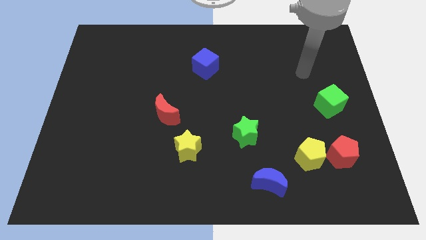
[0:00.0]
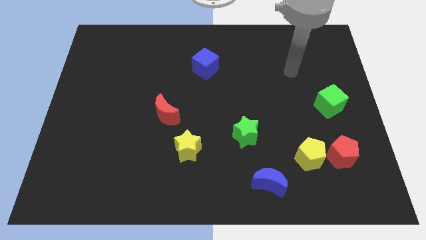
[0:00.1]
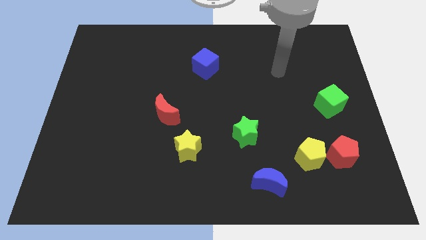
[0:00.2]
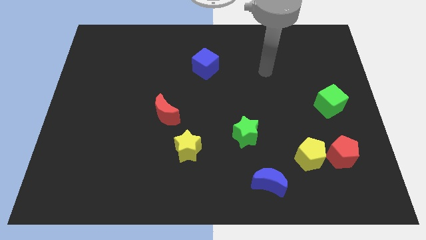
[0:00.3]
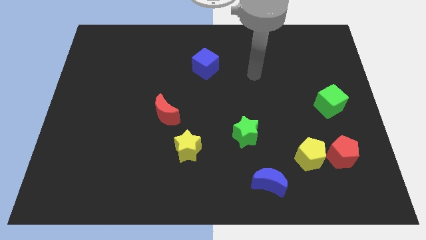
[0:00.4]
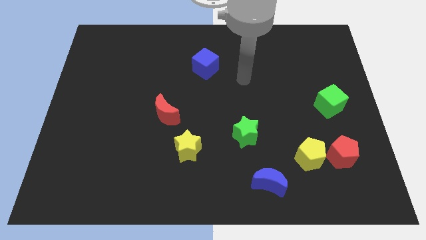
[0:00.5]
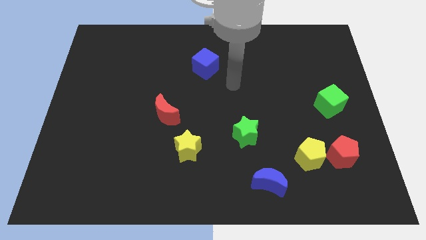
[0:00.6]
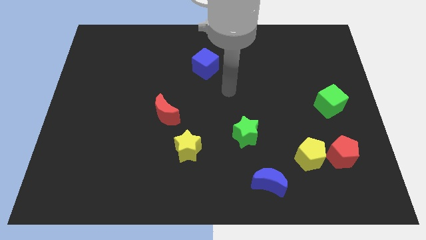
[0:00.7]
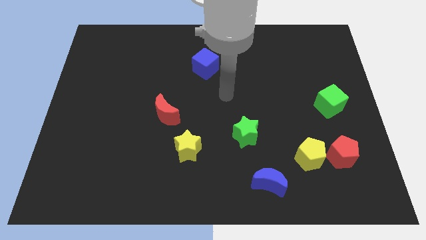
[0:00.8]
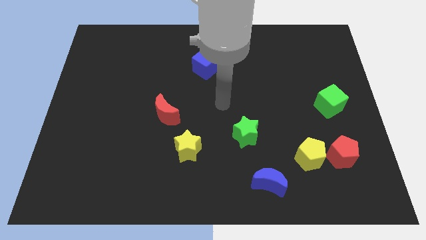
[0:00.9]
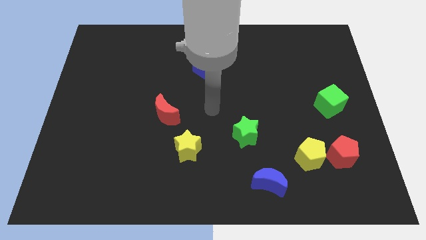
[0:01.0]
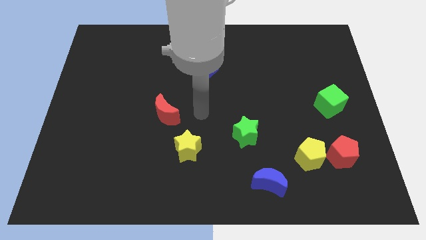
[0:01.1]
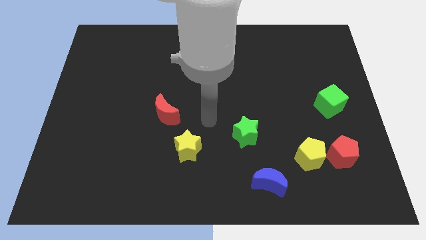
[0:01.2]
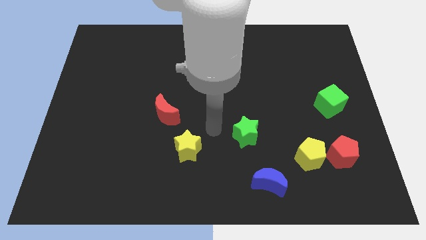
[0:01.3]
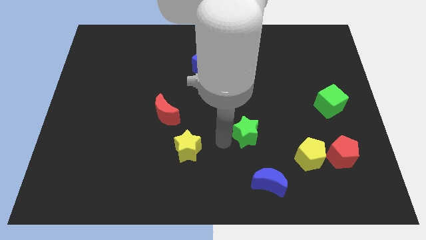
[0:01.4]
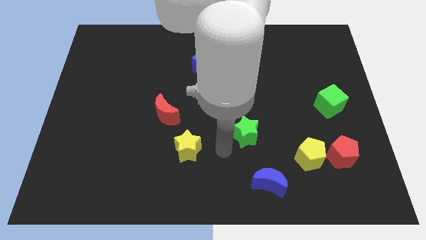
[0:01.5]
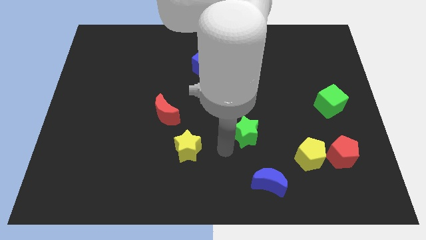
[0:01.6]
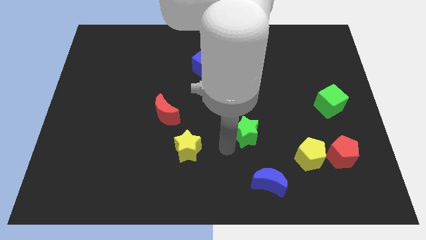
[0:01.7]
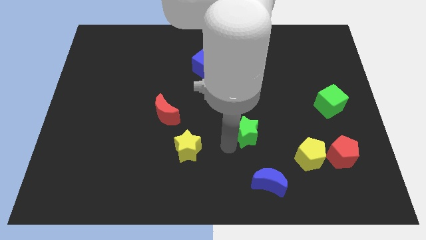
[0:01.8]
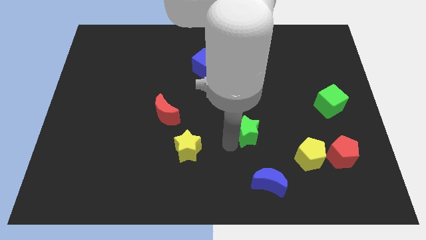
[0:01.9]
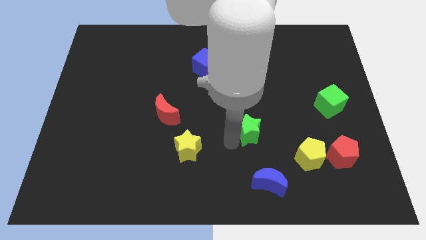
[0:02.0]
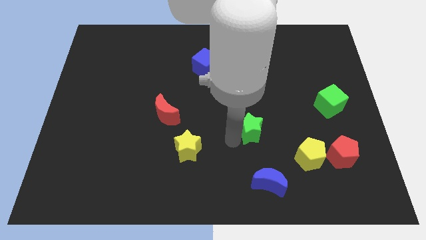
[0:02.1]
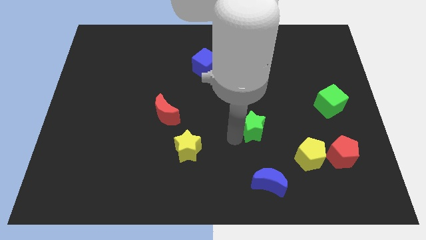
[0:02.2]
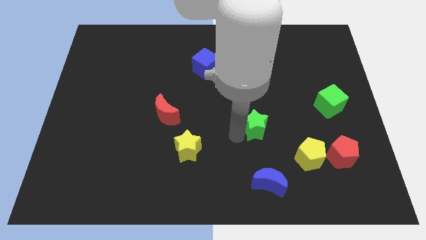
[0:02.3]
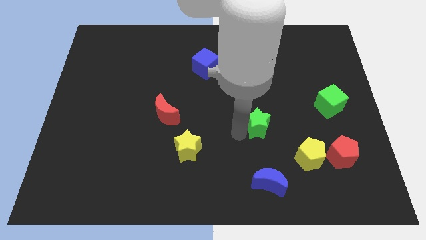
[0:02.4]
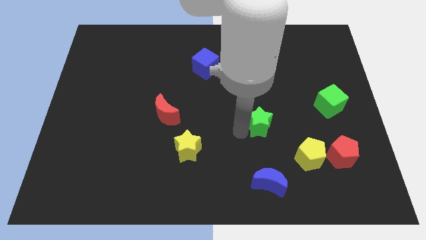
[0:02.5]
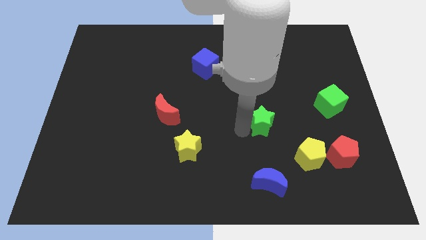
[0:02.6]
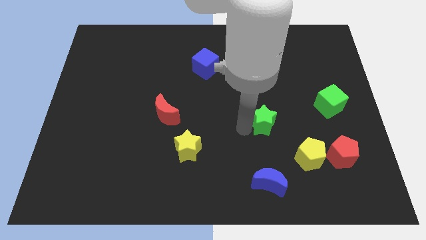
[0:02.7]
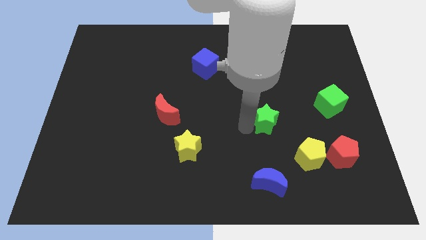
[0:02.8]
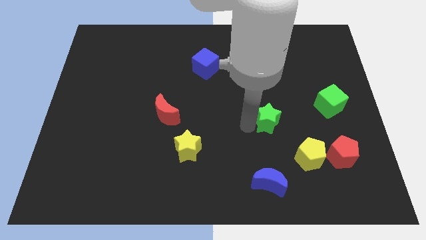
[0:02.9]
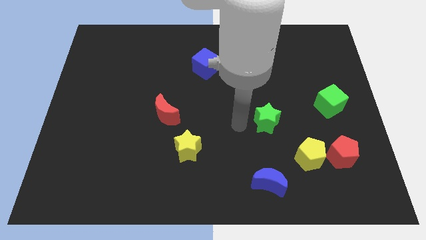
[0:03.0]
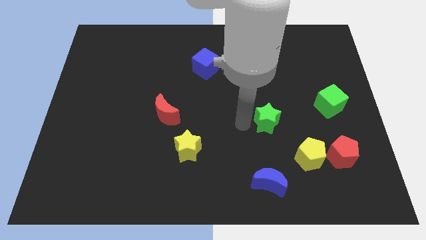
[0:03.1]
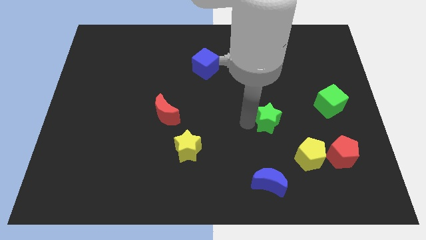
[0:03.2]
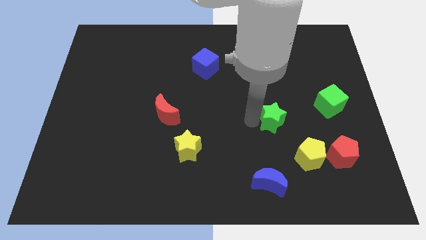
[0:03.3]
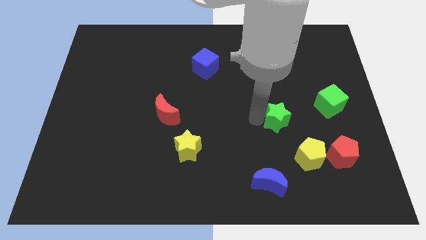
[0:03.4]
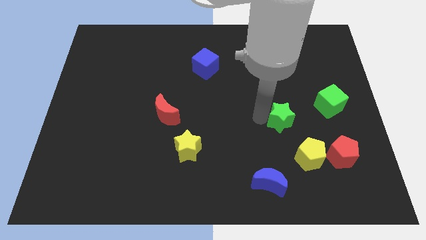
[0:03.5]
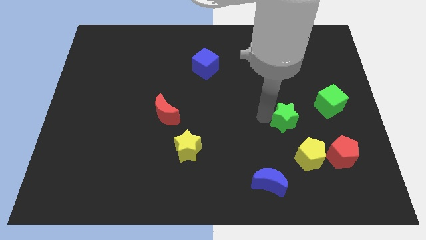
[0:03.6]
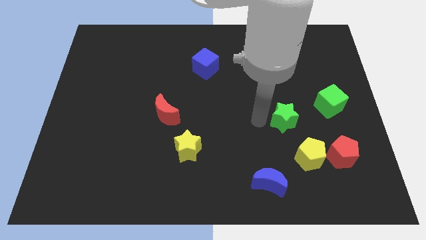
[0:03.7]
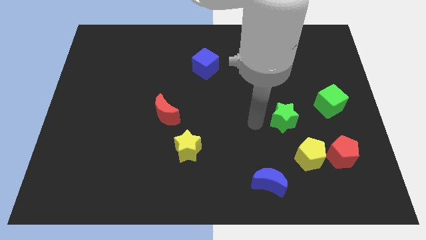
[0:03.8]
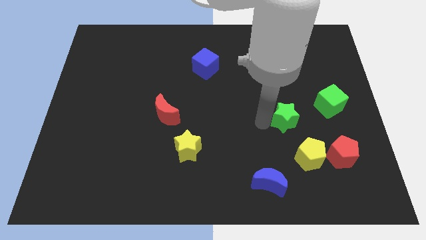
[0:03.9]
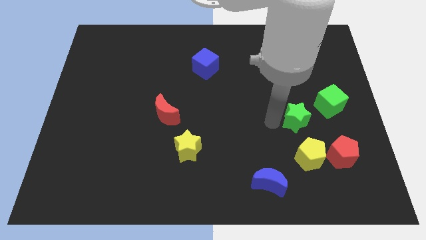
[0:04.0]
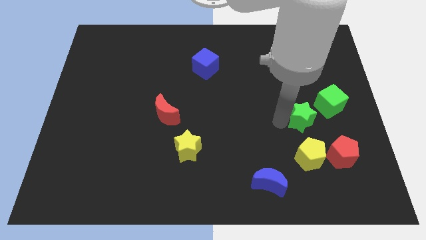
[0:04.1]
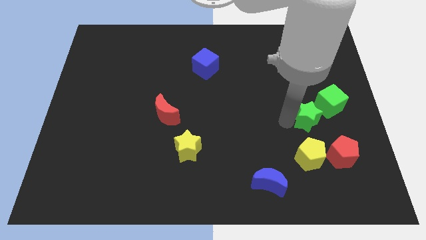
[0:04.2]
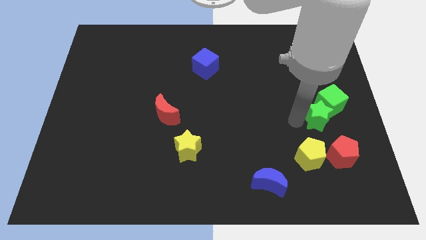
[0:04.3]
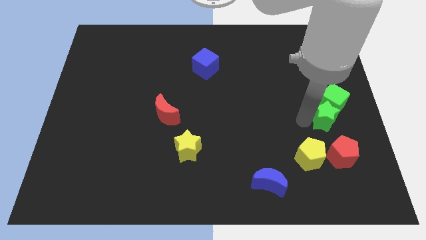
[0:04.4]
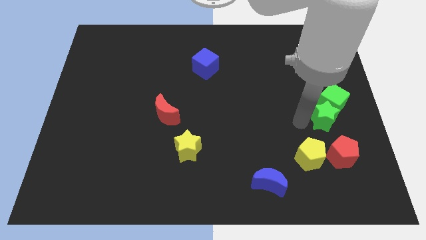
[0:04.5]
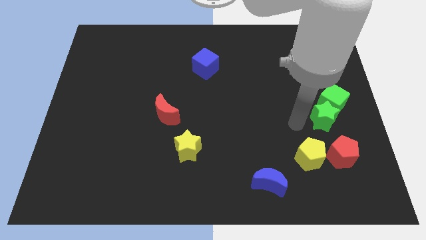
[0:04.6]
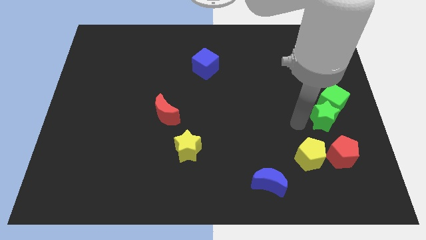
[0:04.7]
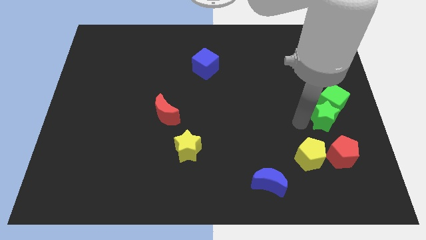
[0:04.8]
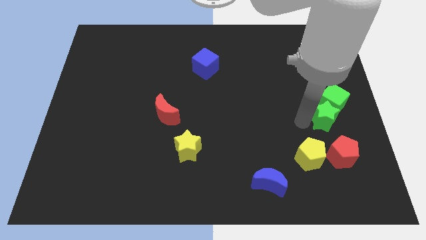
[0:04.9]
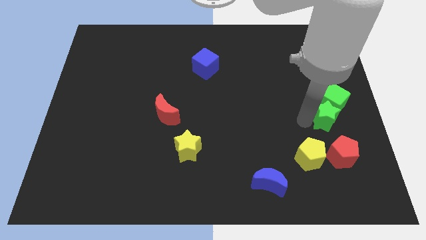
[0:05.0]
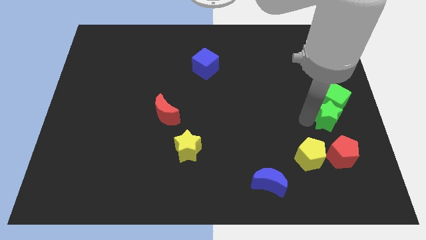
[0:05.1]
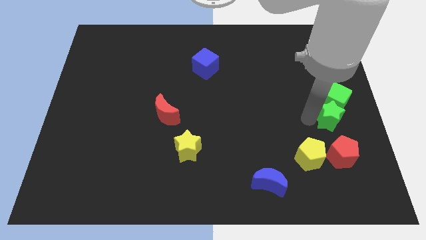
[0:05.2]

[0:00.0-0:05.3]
put the green star to the center right

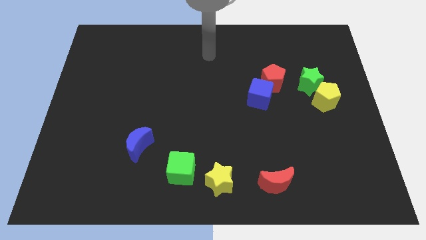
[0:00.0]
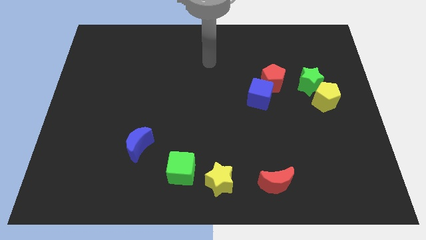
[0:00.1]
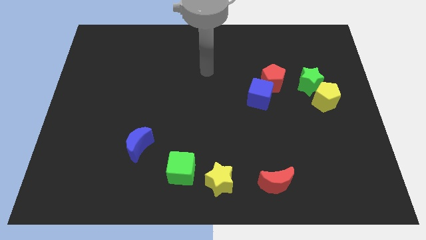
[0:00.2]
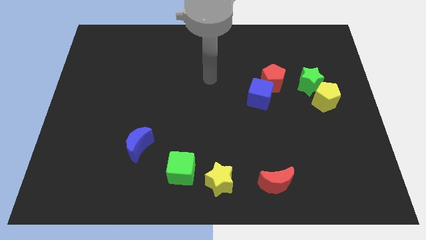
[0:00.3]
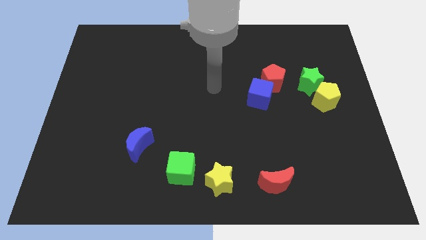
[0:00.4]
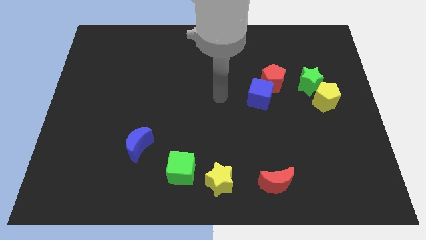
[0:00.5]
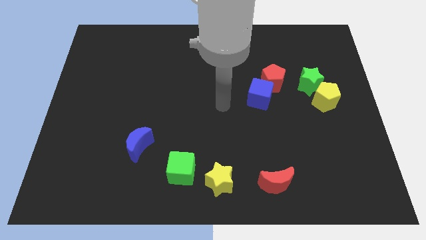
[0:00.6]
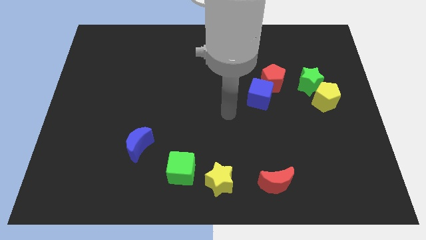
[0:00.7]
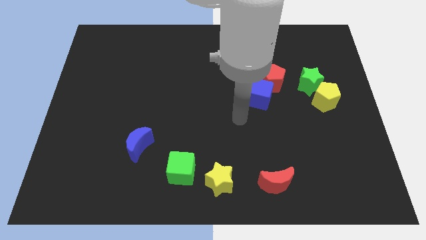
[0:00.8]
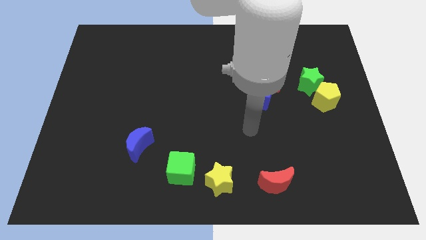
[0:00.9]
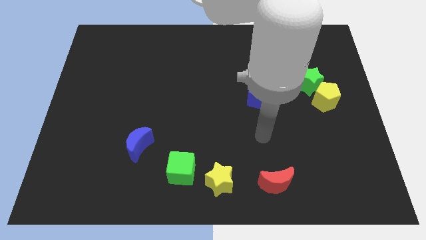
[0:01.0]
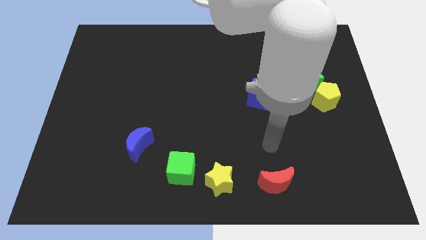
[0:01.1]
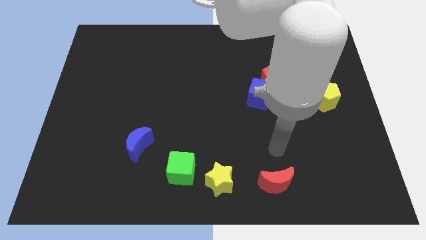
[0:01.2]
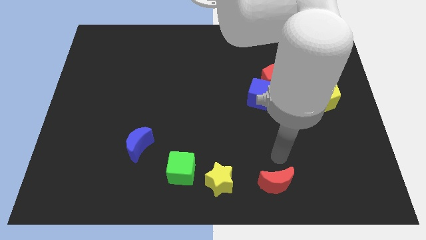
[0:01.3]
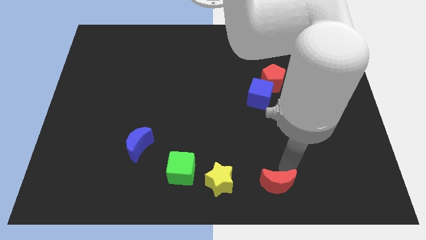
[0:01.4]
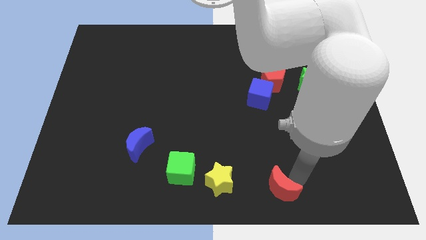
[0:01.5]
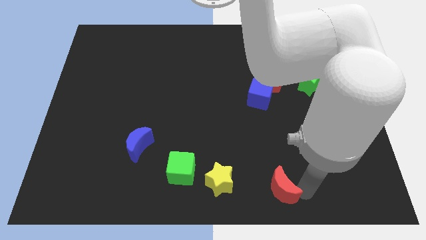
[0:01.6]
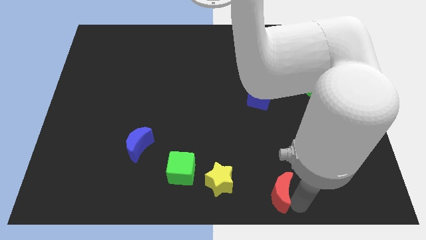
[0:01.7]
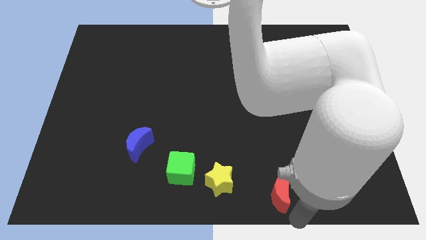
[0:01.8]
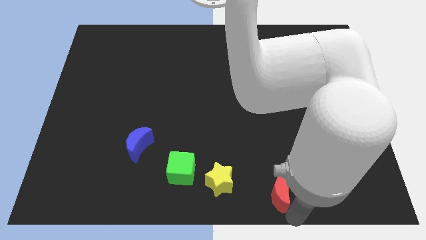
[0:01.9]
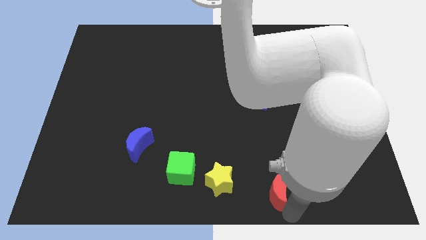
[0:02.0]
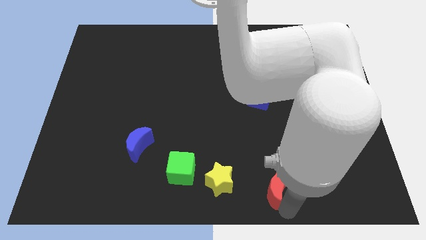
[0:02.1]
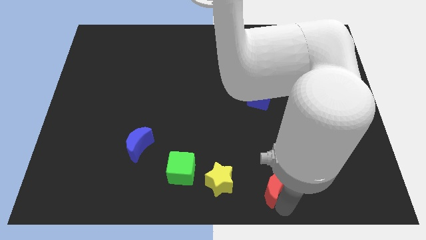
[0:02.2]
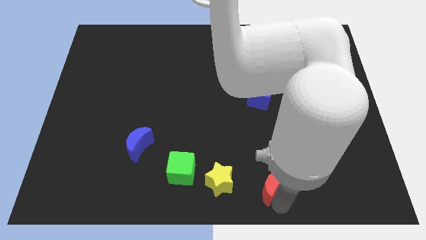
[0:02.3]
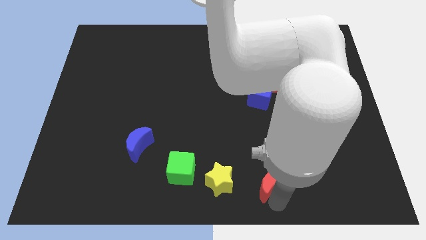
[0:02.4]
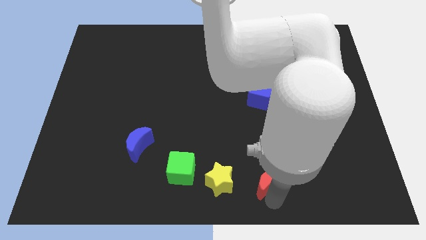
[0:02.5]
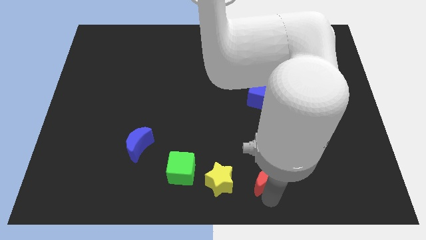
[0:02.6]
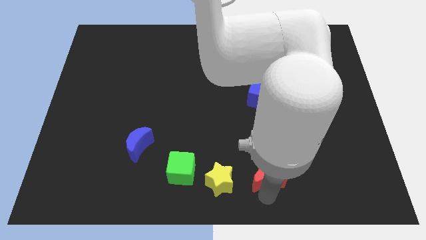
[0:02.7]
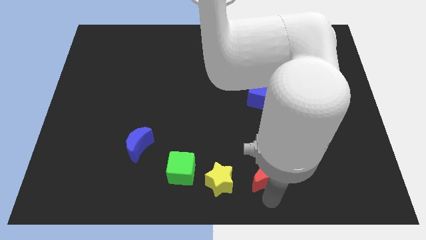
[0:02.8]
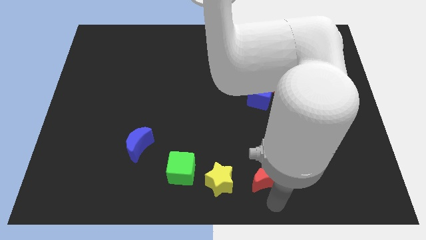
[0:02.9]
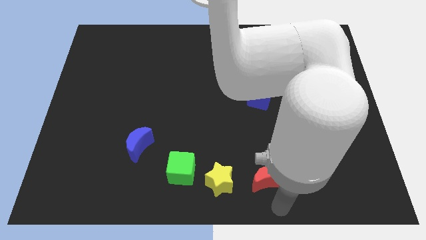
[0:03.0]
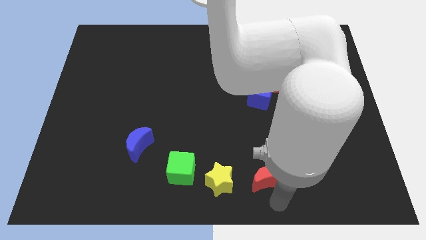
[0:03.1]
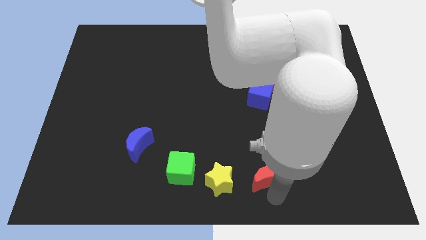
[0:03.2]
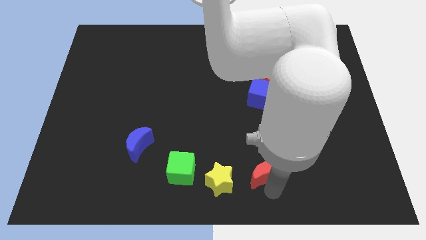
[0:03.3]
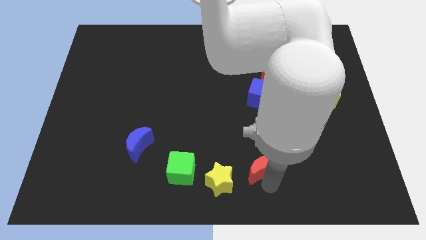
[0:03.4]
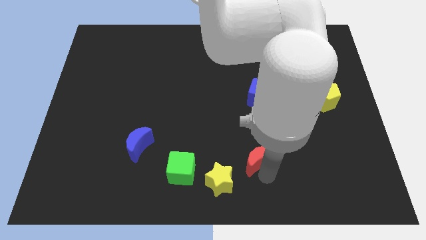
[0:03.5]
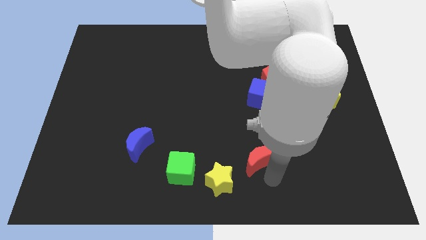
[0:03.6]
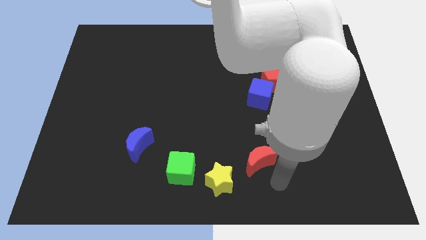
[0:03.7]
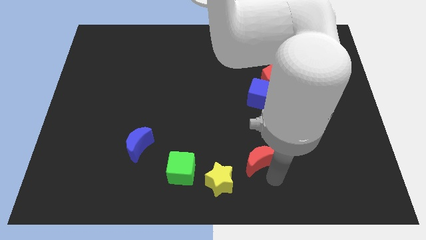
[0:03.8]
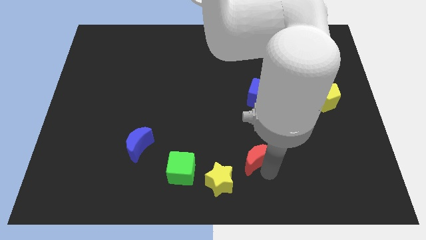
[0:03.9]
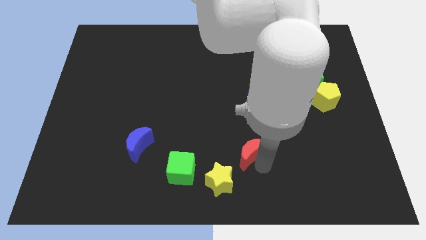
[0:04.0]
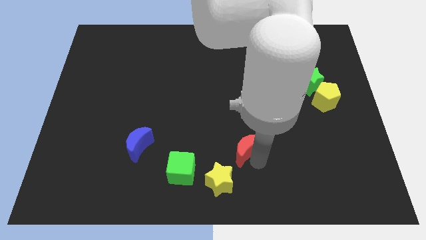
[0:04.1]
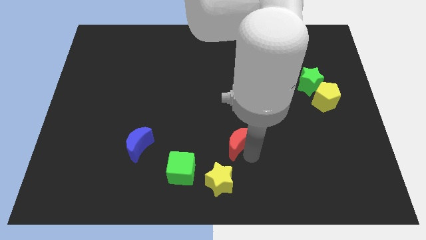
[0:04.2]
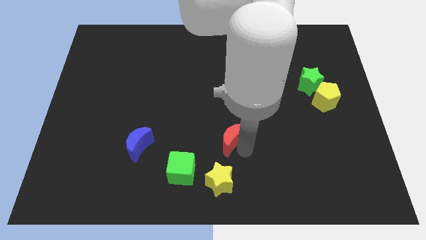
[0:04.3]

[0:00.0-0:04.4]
move the red moon to the middle of the board
